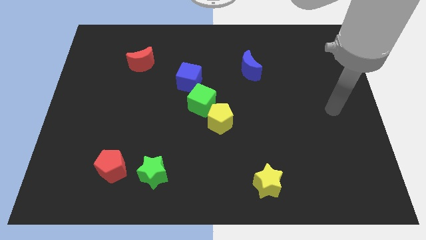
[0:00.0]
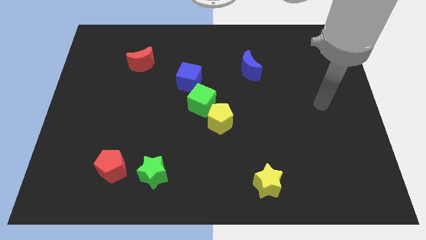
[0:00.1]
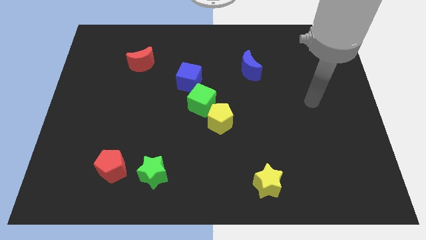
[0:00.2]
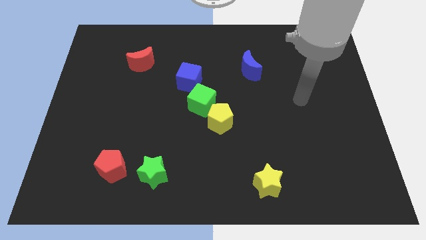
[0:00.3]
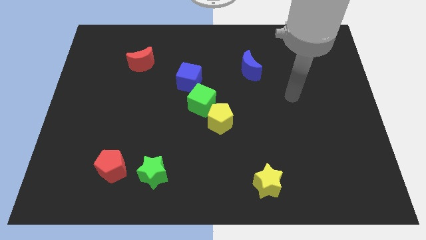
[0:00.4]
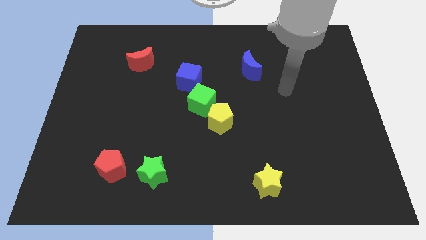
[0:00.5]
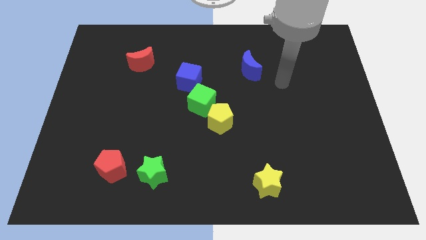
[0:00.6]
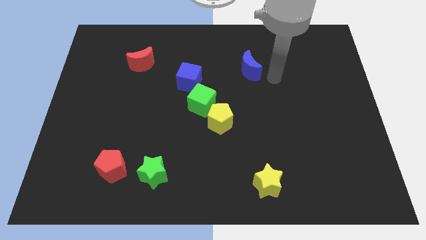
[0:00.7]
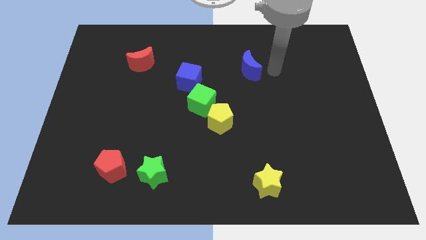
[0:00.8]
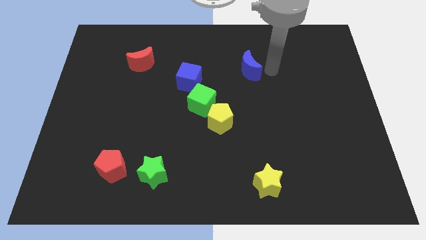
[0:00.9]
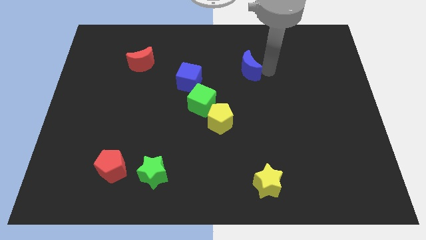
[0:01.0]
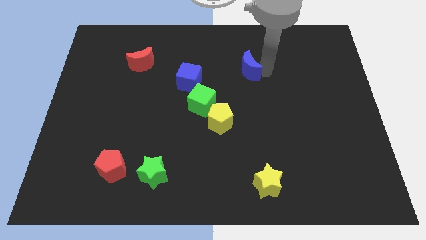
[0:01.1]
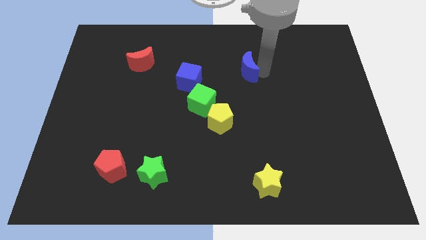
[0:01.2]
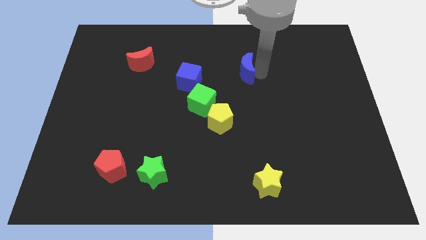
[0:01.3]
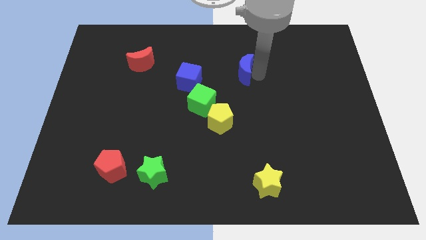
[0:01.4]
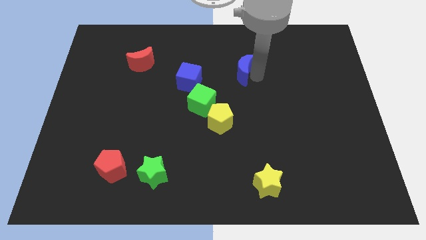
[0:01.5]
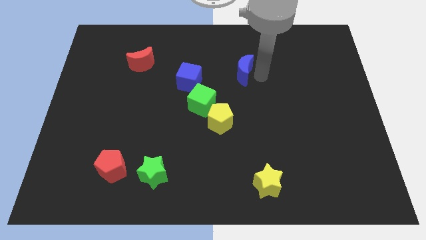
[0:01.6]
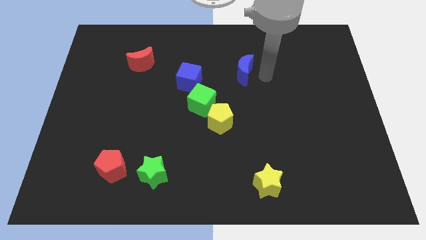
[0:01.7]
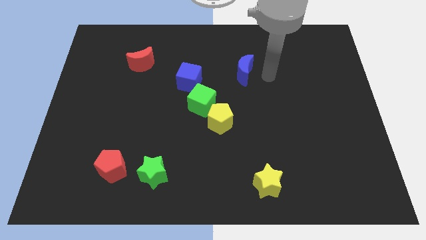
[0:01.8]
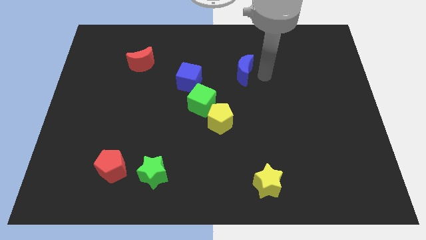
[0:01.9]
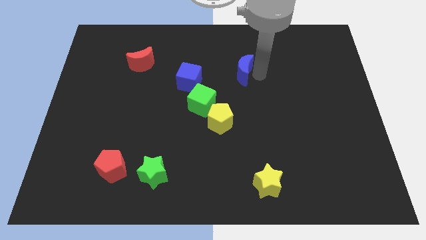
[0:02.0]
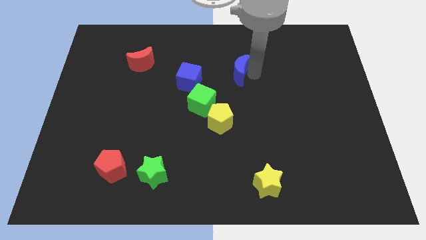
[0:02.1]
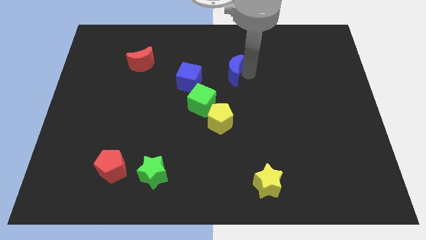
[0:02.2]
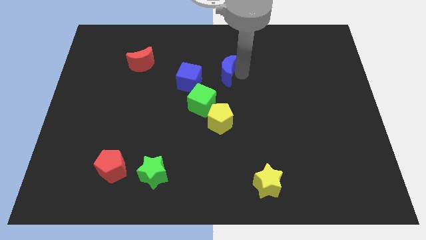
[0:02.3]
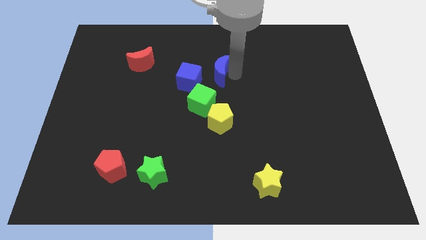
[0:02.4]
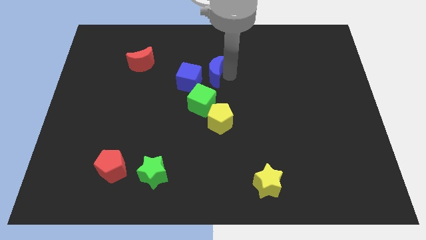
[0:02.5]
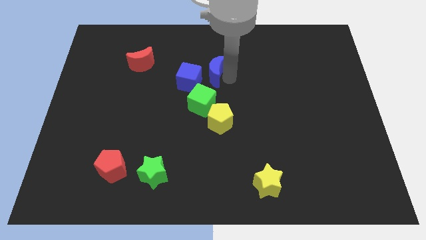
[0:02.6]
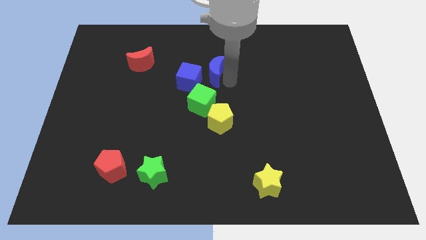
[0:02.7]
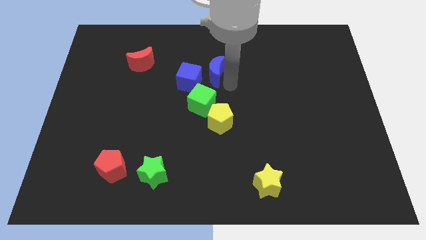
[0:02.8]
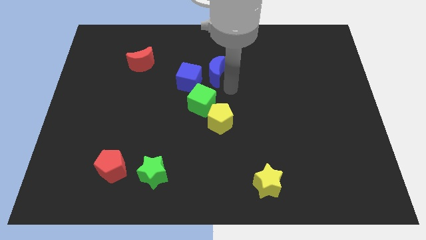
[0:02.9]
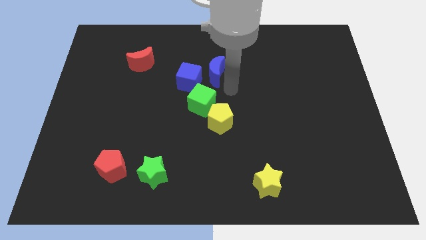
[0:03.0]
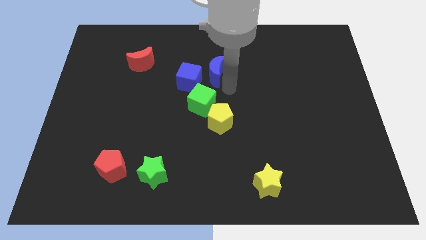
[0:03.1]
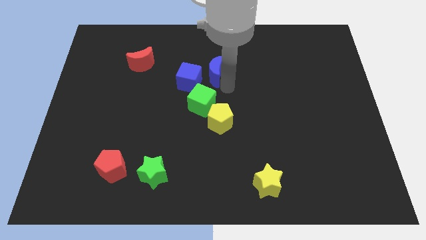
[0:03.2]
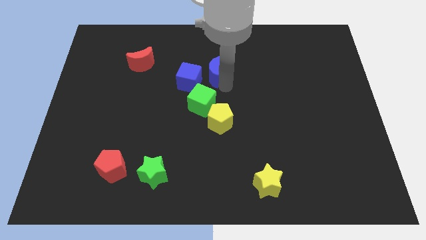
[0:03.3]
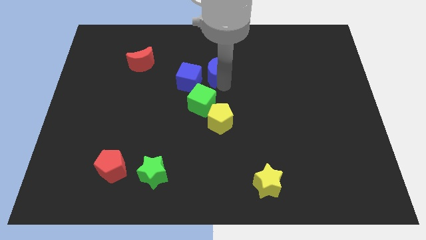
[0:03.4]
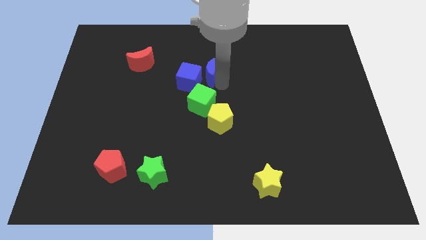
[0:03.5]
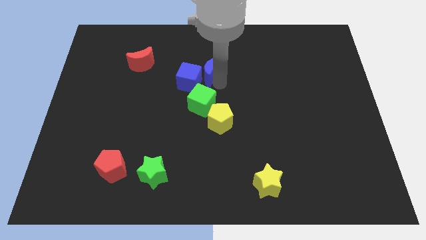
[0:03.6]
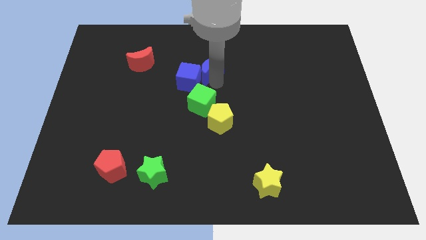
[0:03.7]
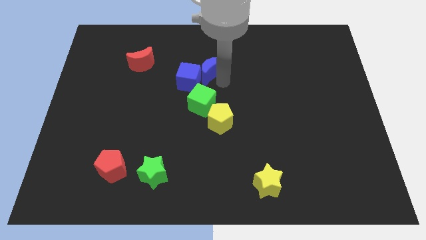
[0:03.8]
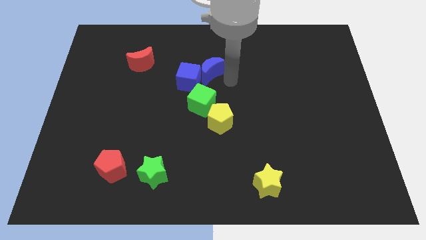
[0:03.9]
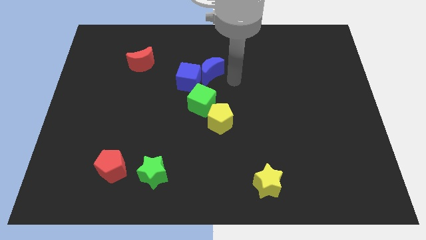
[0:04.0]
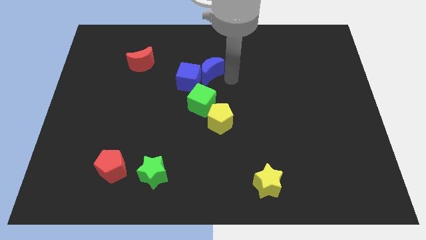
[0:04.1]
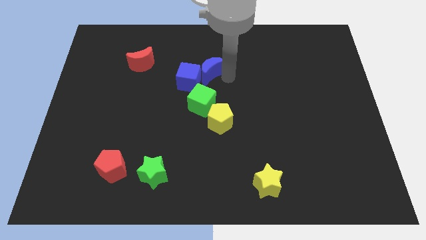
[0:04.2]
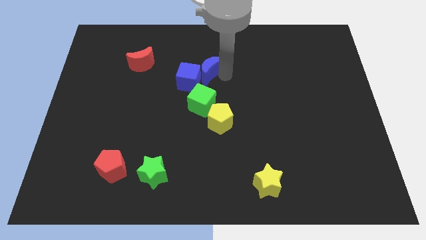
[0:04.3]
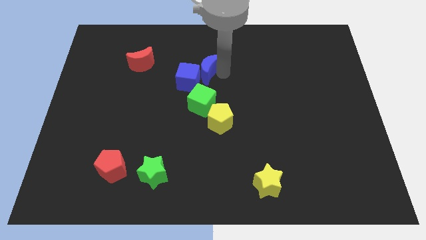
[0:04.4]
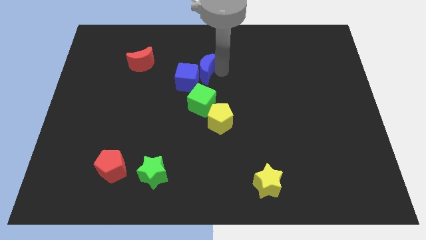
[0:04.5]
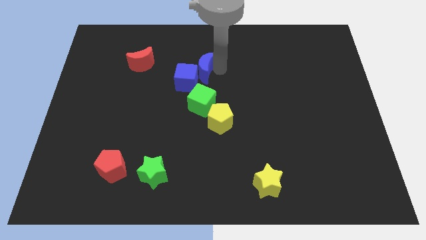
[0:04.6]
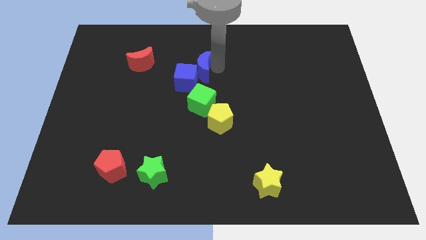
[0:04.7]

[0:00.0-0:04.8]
slide the blue moon to the right of the red moon

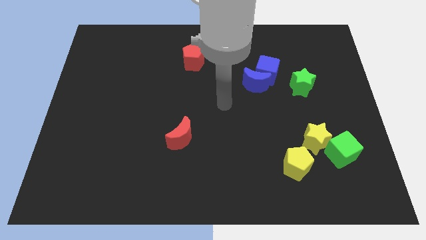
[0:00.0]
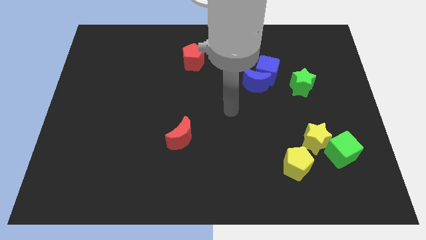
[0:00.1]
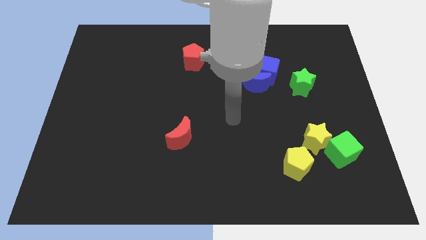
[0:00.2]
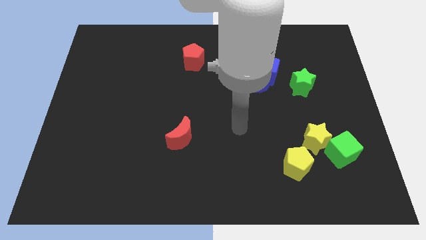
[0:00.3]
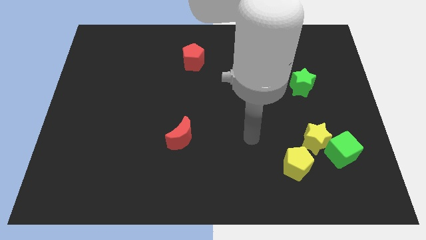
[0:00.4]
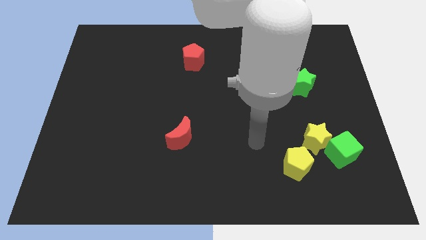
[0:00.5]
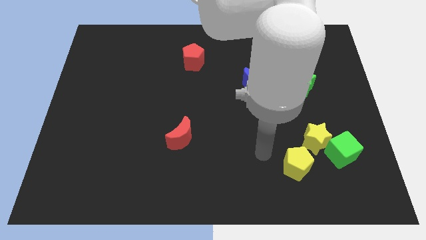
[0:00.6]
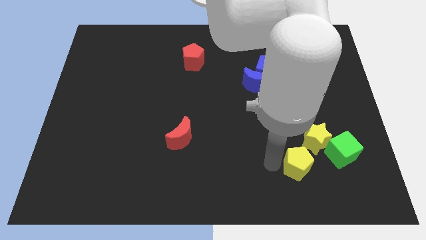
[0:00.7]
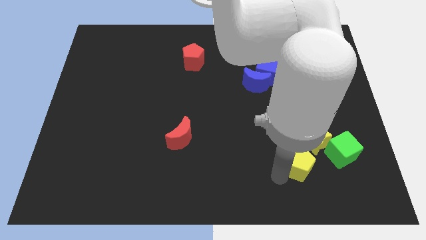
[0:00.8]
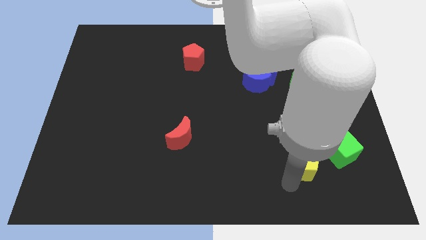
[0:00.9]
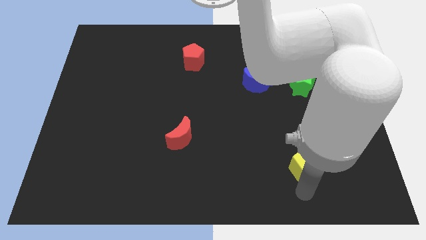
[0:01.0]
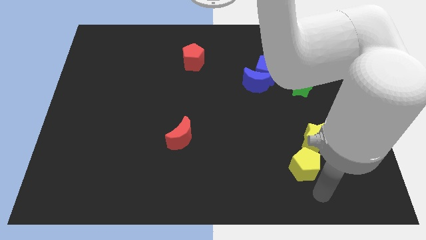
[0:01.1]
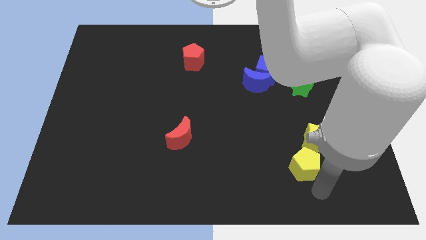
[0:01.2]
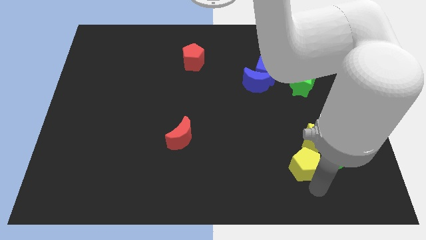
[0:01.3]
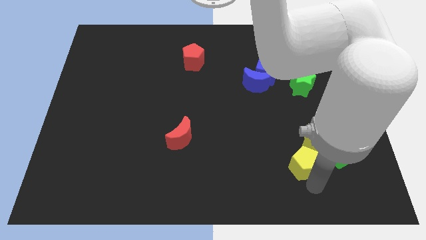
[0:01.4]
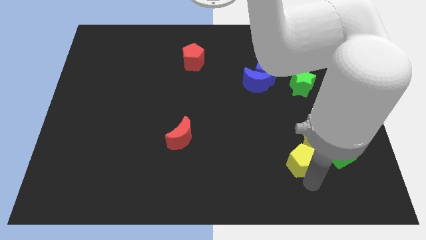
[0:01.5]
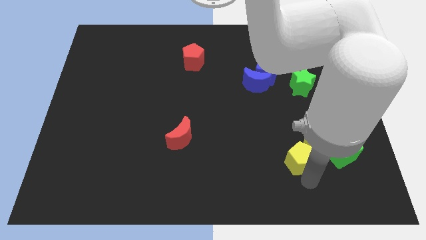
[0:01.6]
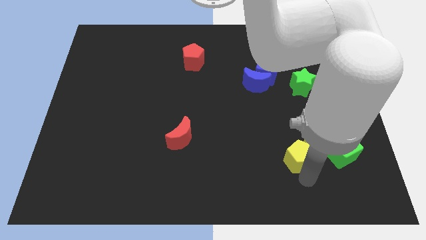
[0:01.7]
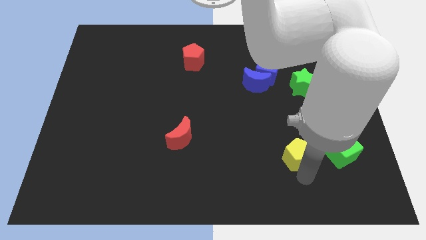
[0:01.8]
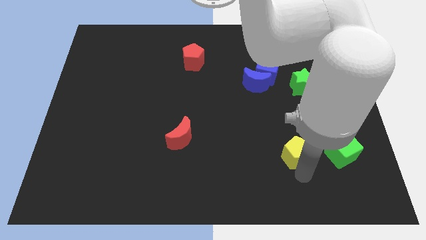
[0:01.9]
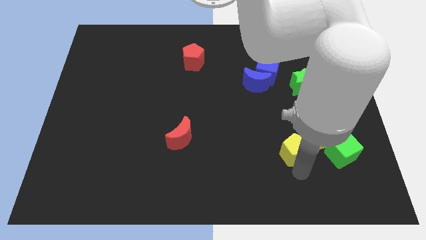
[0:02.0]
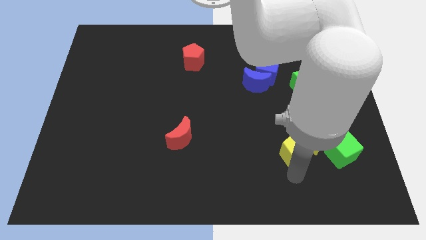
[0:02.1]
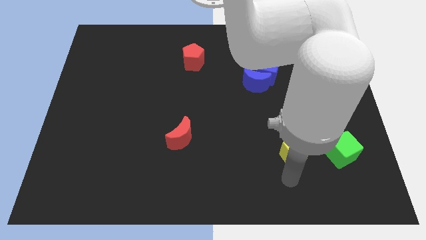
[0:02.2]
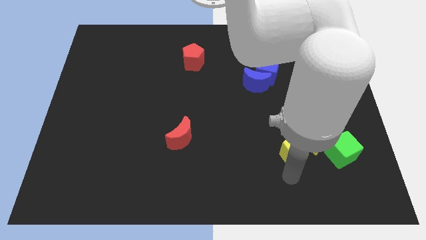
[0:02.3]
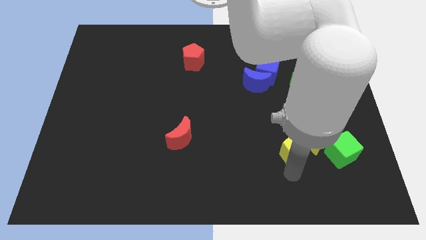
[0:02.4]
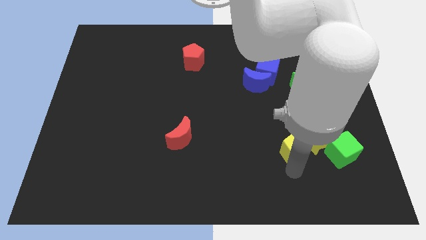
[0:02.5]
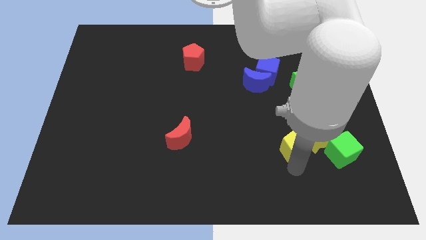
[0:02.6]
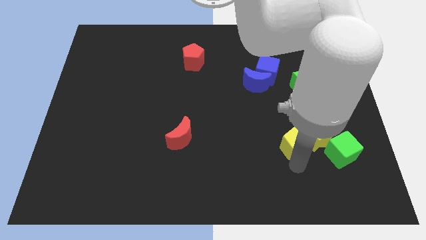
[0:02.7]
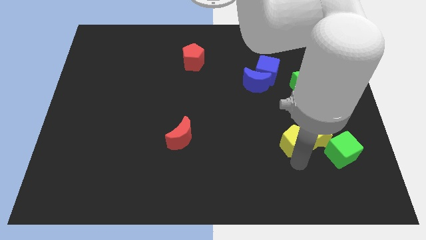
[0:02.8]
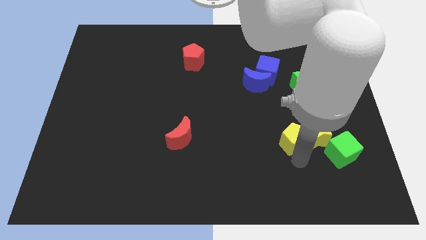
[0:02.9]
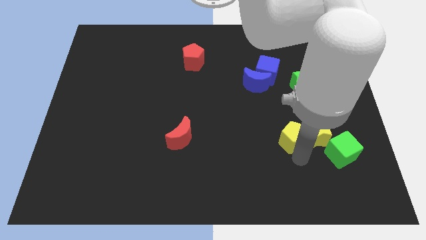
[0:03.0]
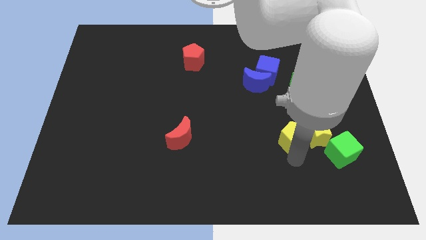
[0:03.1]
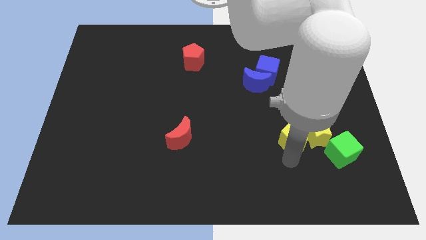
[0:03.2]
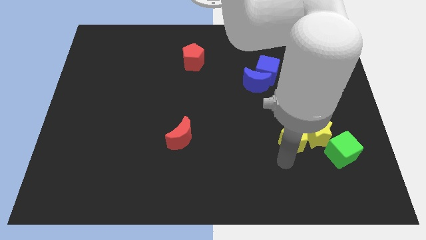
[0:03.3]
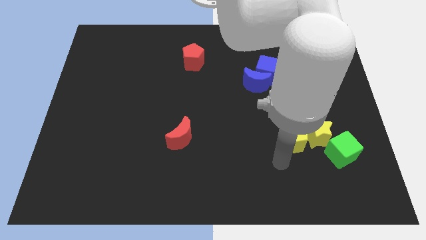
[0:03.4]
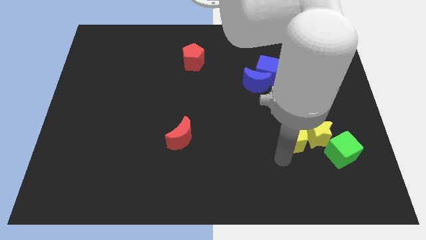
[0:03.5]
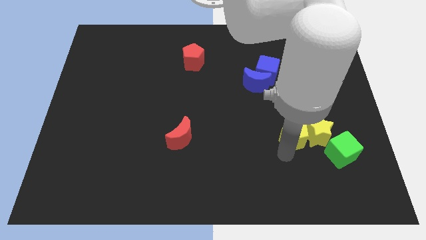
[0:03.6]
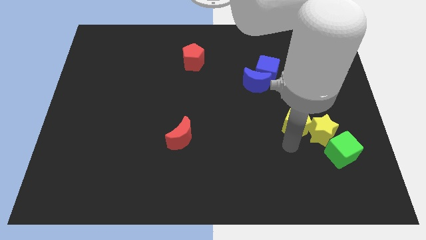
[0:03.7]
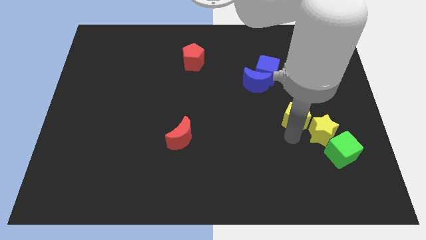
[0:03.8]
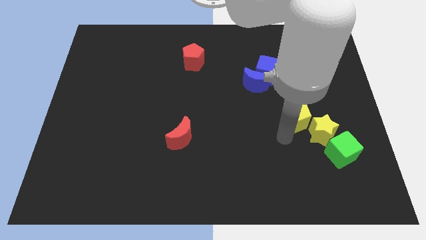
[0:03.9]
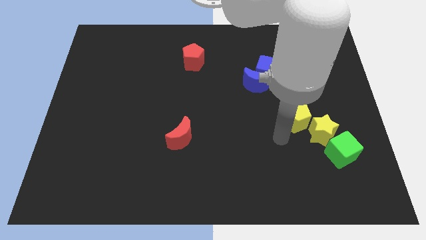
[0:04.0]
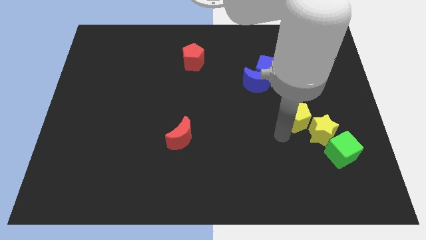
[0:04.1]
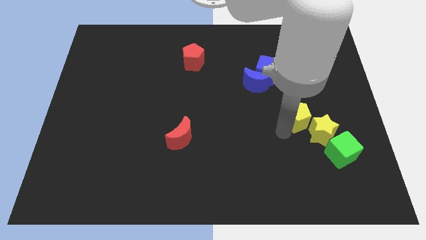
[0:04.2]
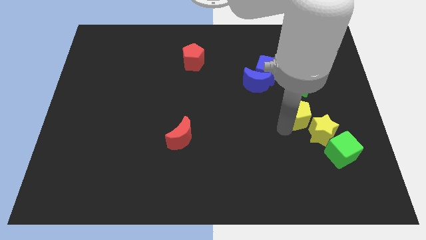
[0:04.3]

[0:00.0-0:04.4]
push the yellow pentagon to the top side of the yellow star
